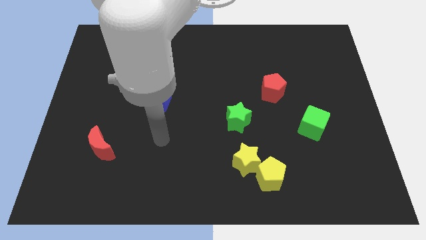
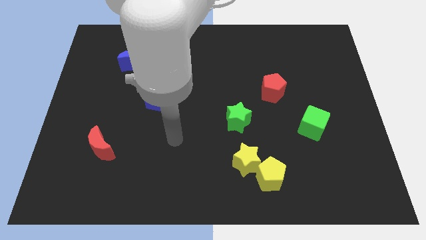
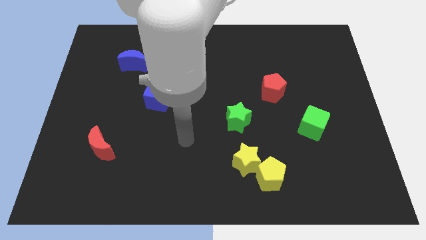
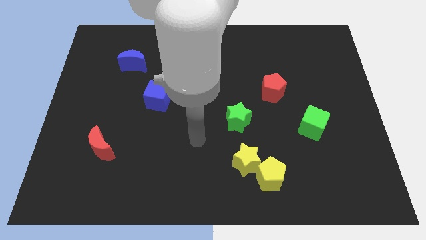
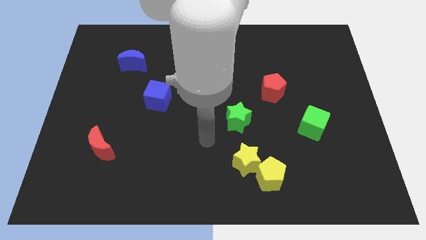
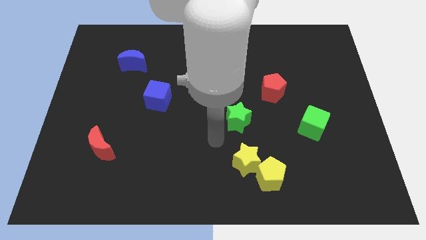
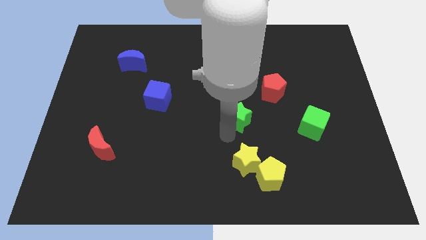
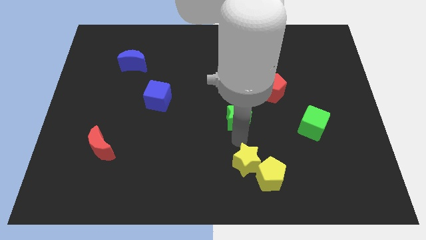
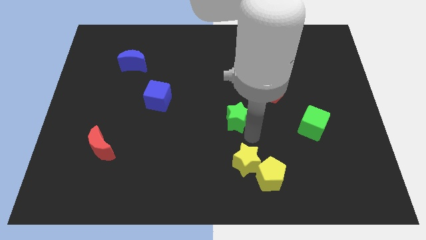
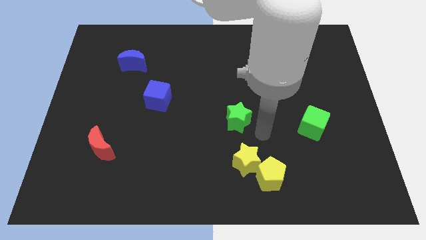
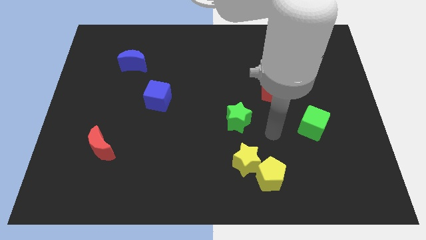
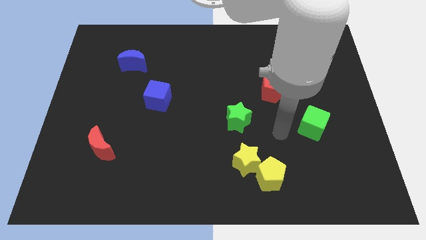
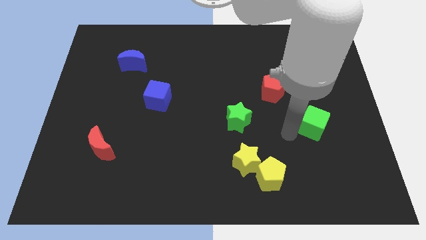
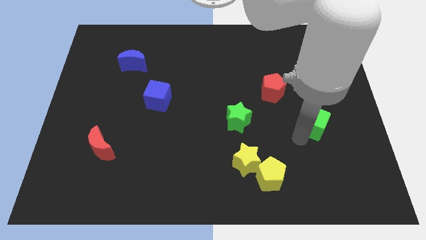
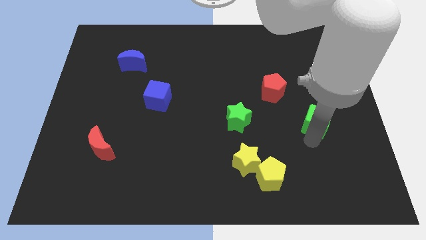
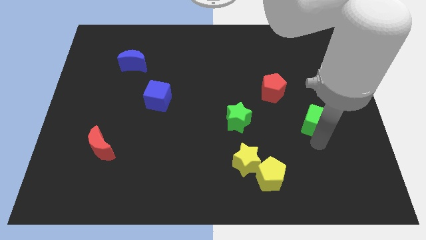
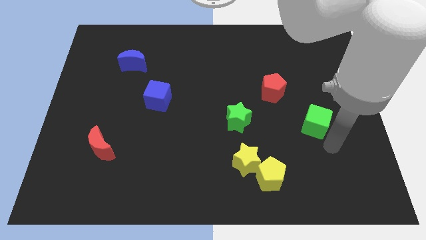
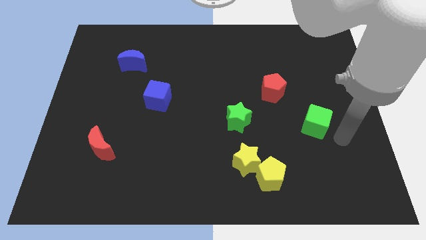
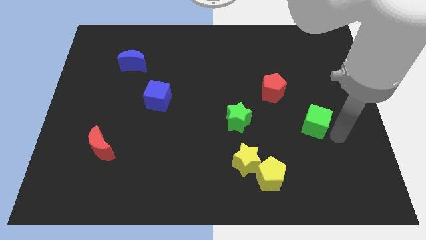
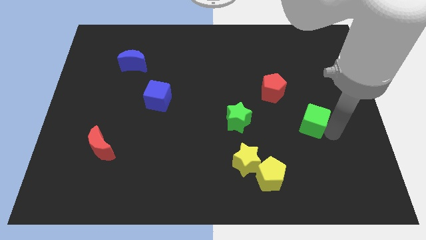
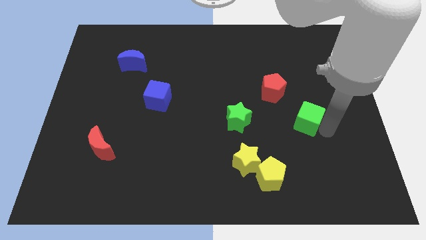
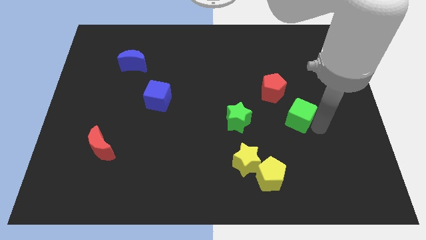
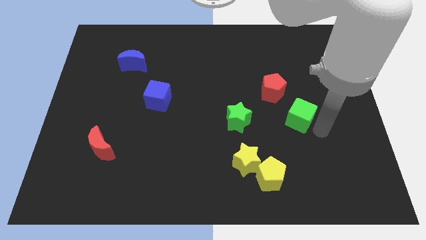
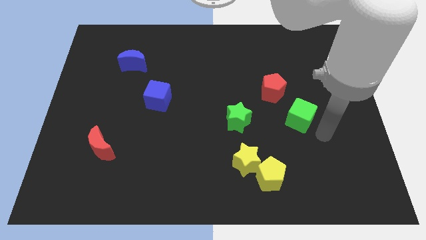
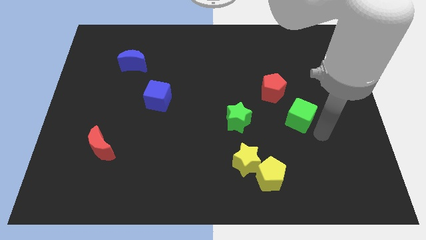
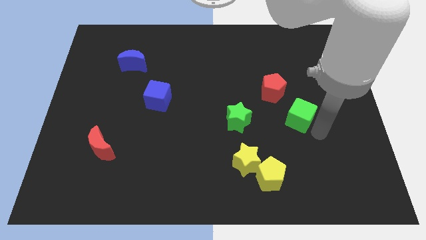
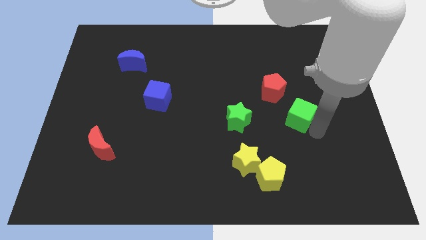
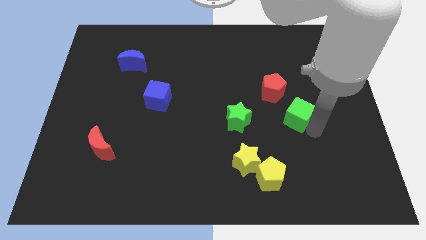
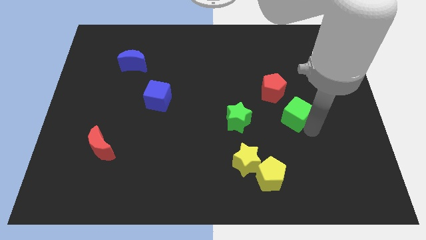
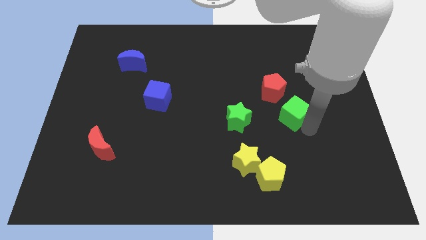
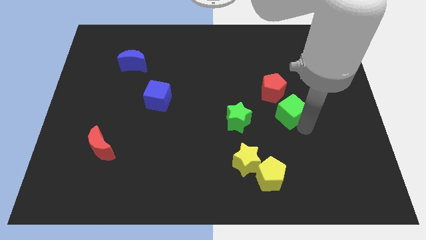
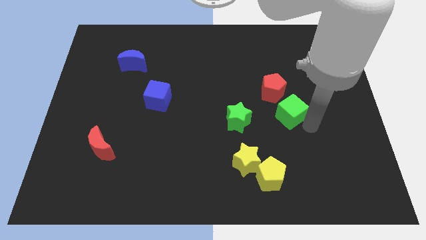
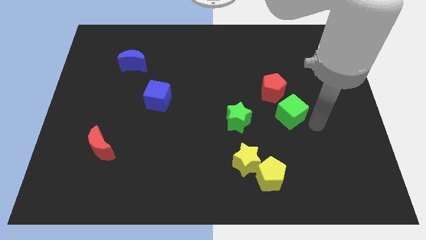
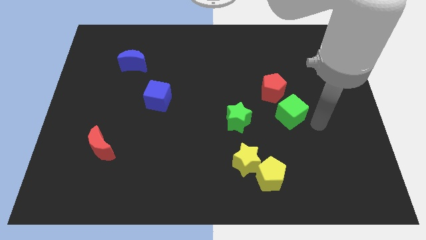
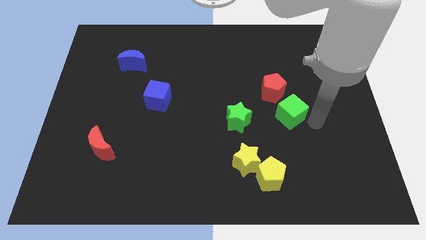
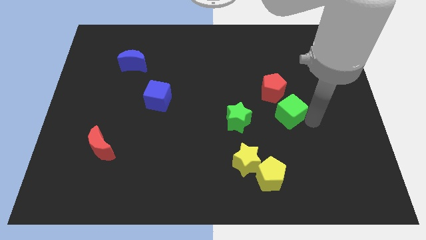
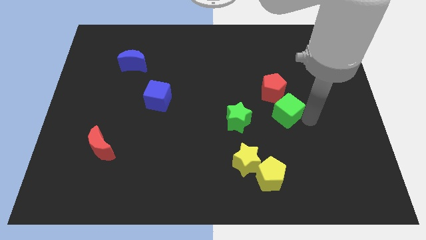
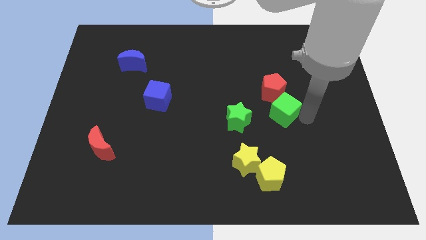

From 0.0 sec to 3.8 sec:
move the green cube somewhat upwards and left

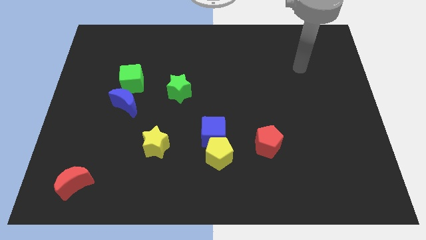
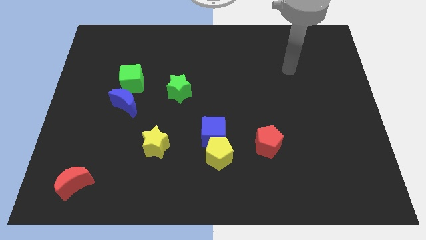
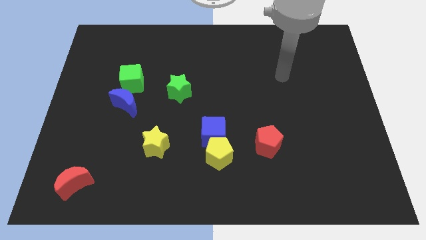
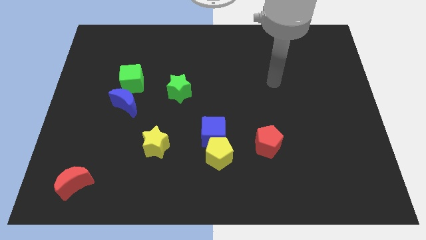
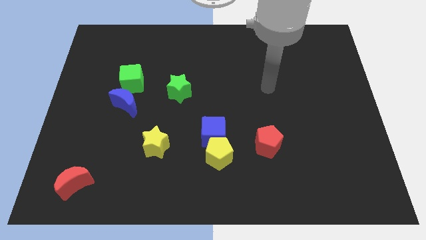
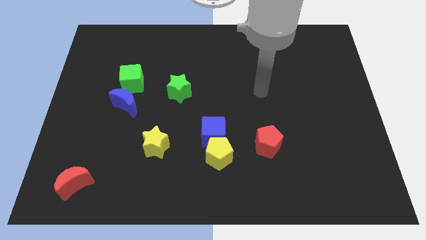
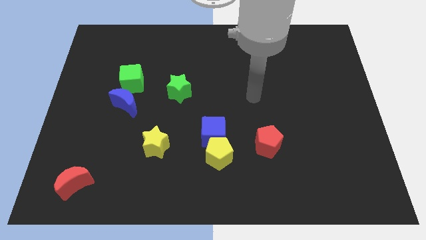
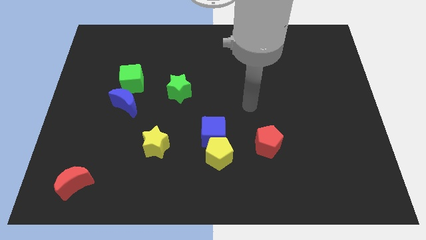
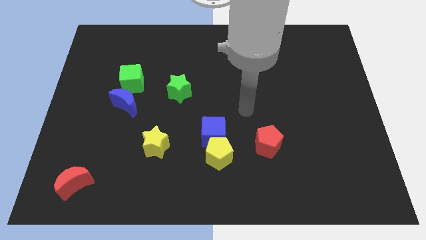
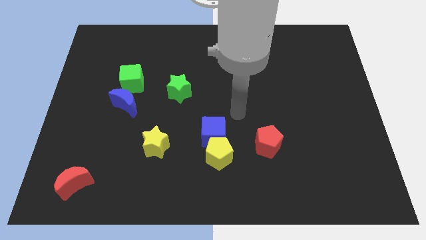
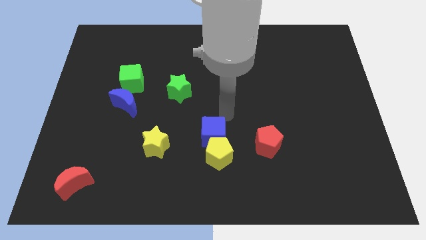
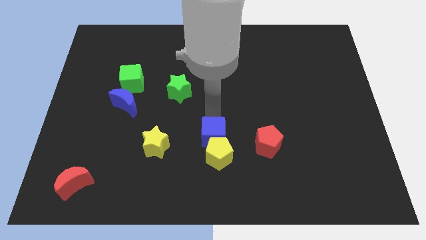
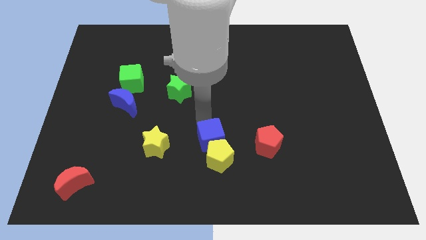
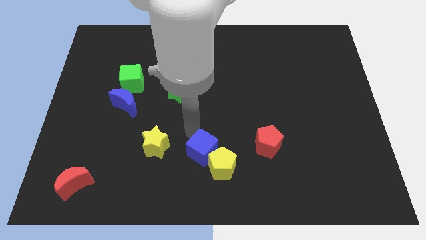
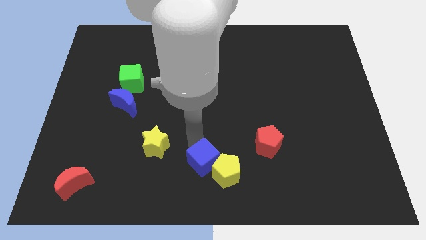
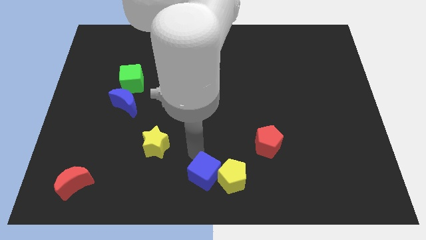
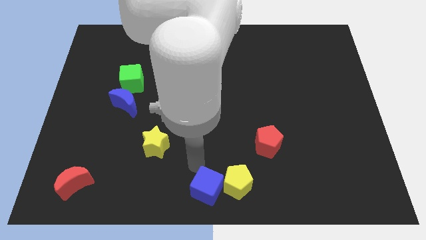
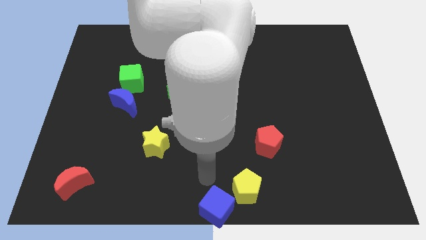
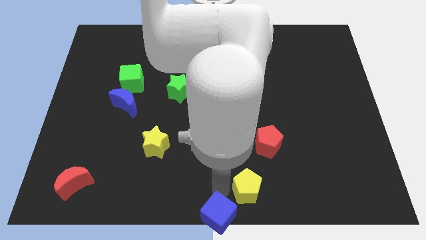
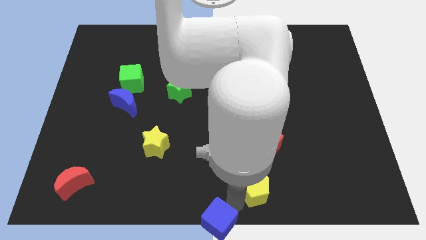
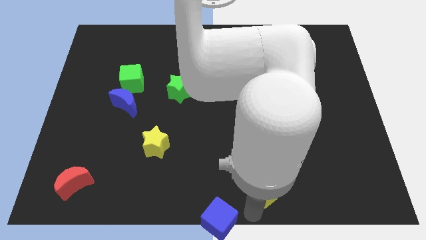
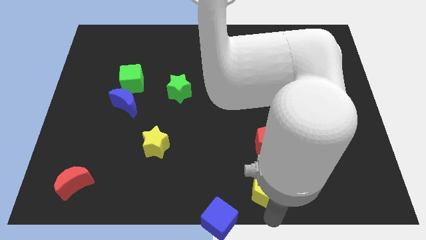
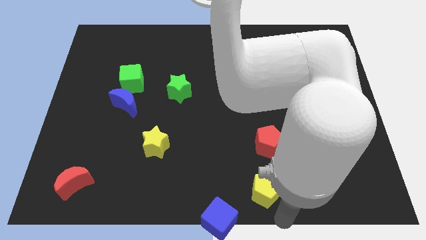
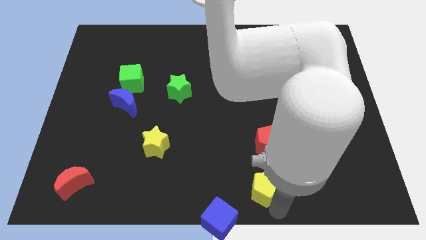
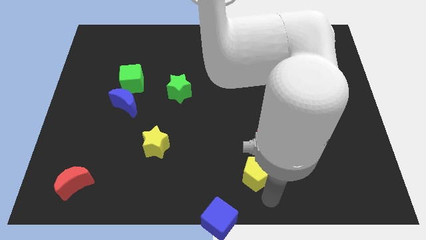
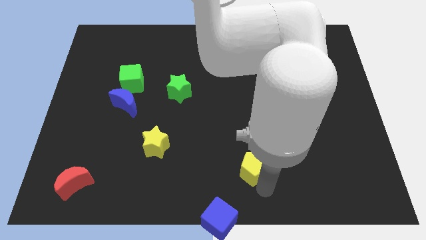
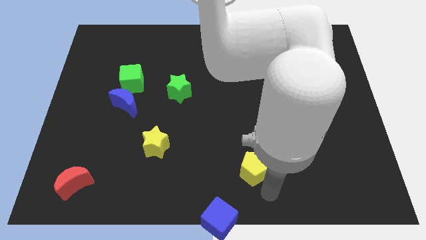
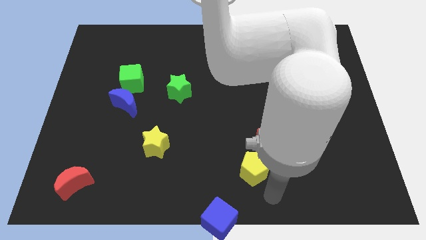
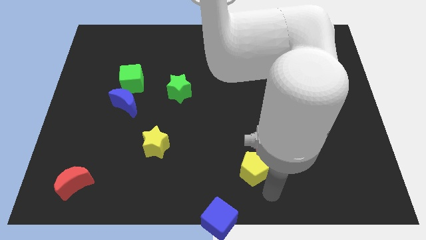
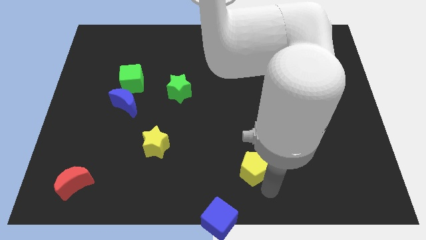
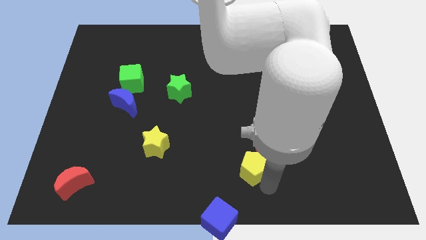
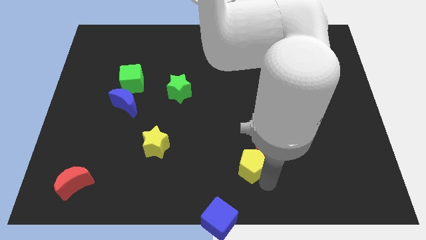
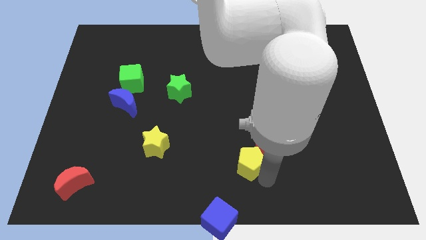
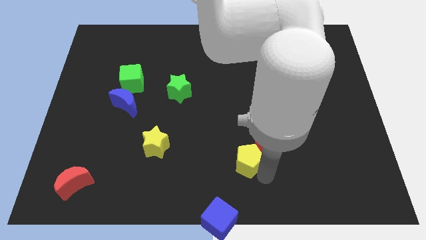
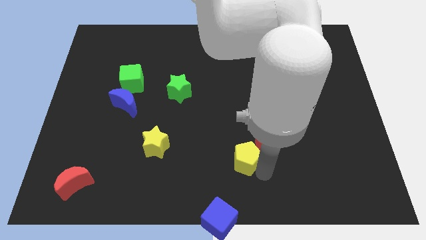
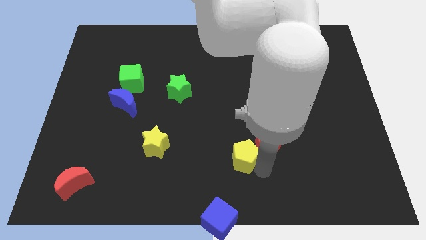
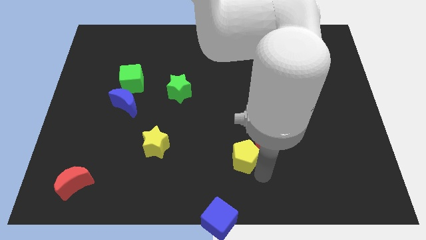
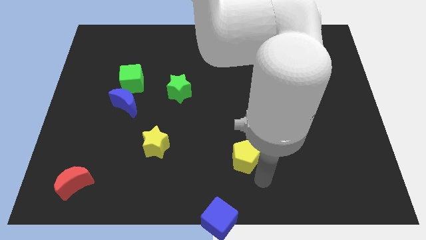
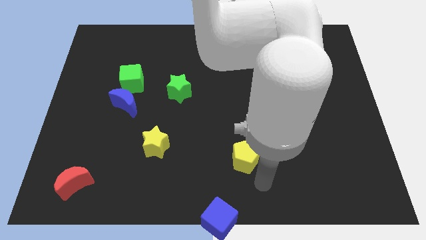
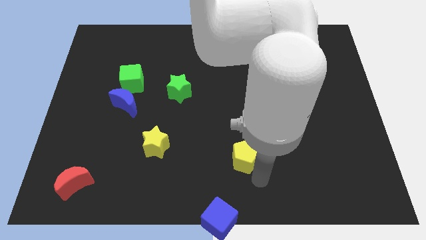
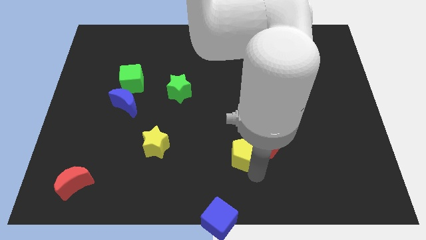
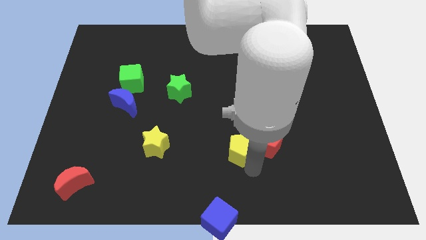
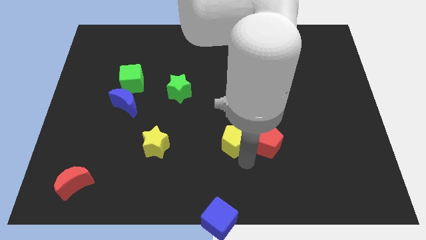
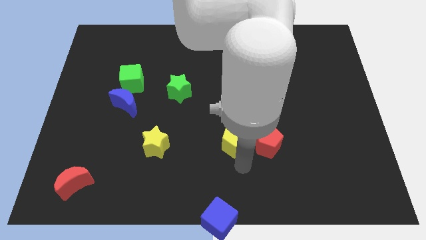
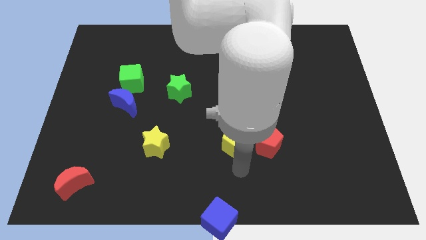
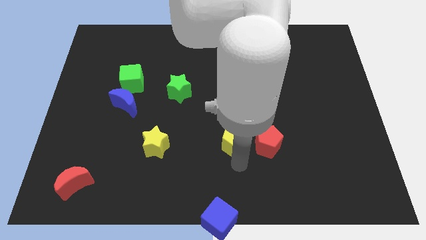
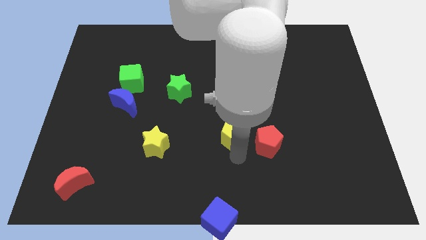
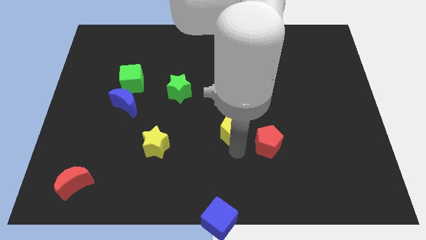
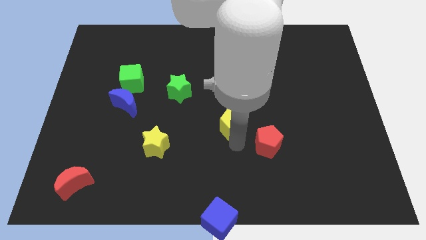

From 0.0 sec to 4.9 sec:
slightly move the yellow pentagon upwards
